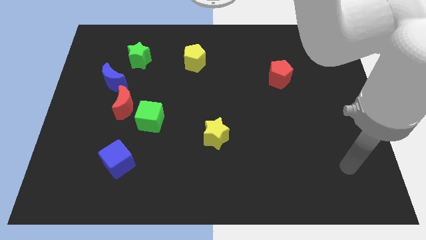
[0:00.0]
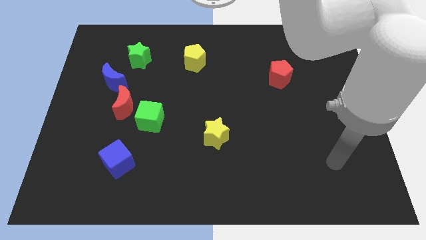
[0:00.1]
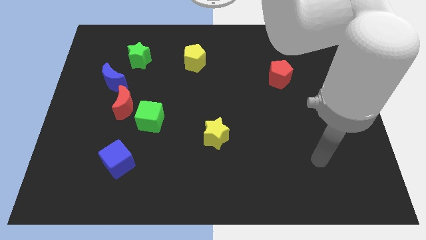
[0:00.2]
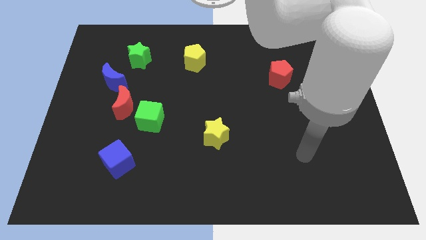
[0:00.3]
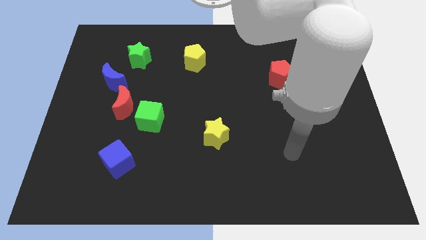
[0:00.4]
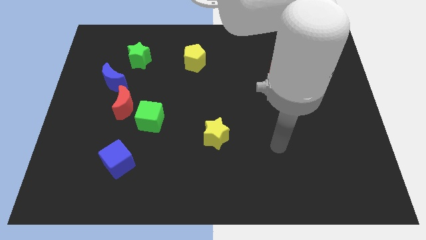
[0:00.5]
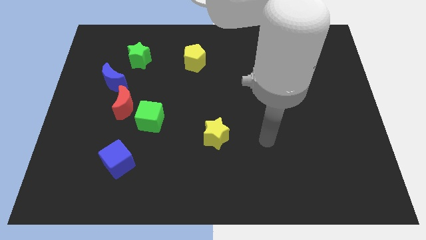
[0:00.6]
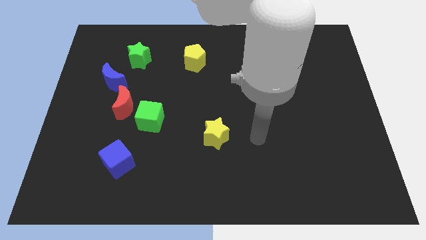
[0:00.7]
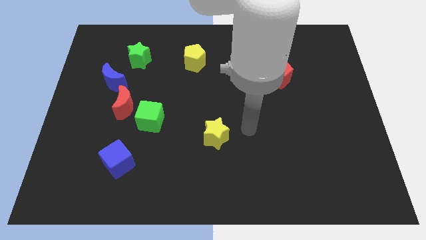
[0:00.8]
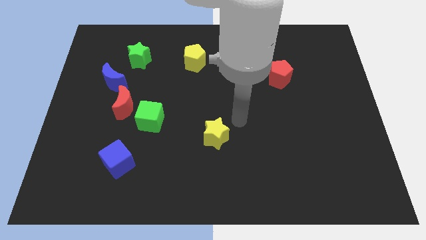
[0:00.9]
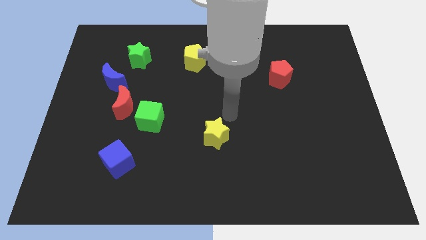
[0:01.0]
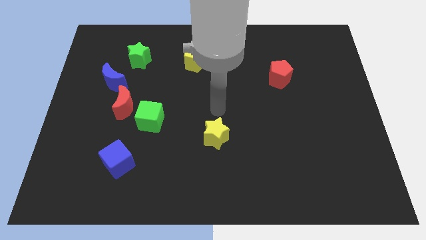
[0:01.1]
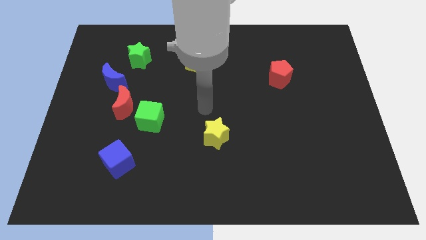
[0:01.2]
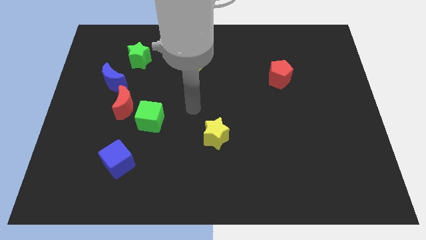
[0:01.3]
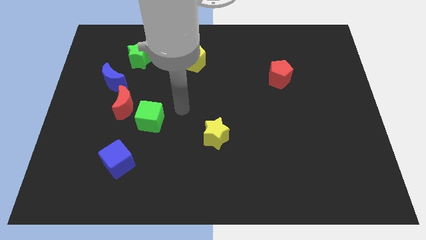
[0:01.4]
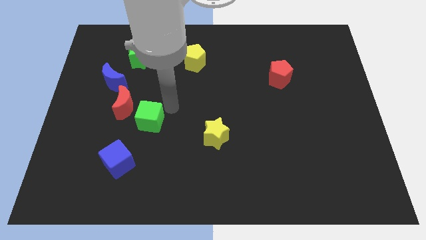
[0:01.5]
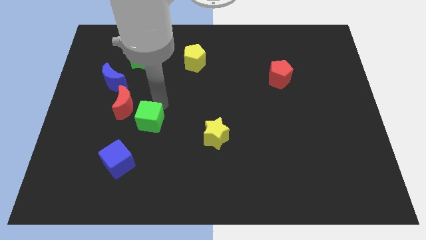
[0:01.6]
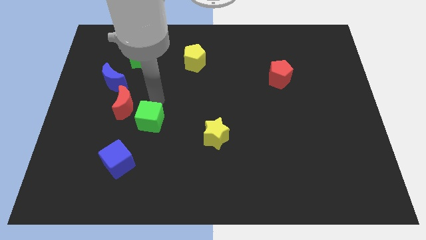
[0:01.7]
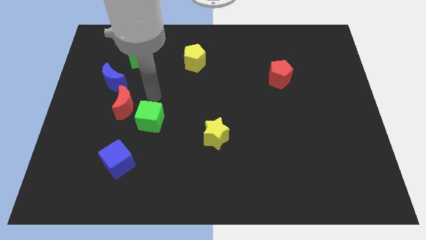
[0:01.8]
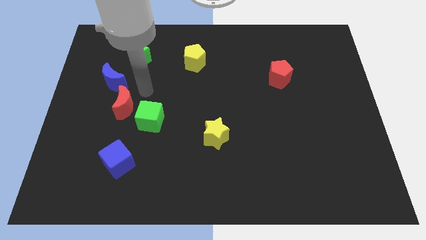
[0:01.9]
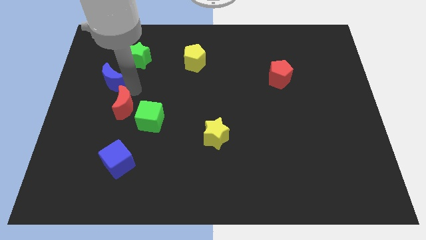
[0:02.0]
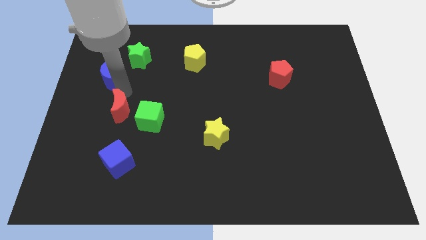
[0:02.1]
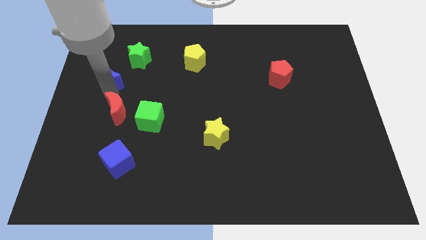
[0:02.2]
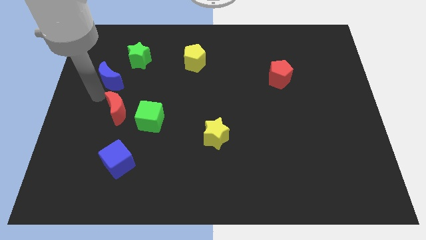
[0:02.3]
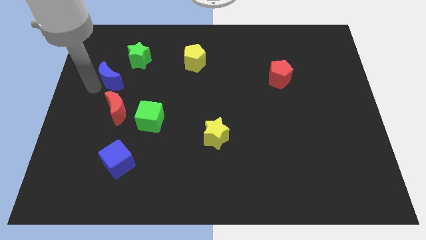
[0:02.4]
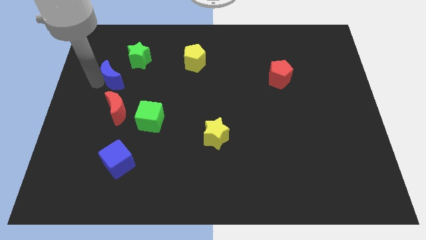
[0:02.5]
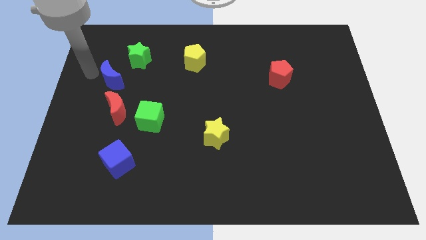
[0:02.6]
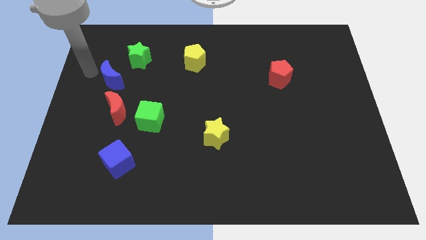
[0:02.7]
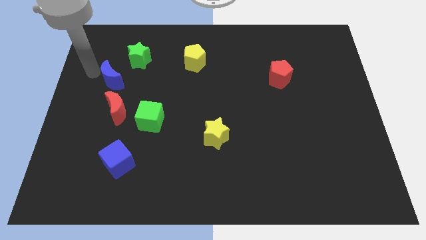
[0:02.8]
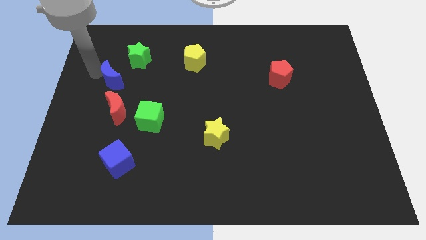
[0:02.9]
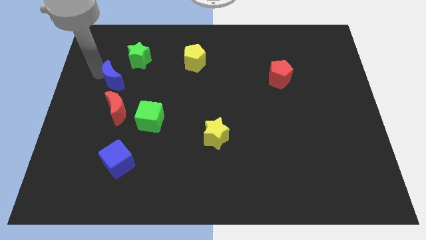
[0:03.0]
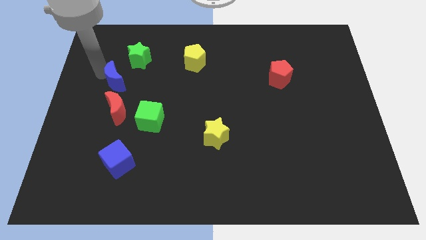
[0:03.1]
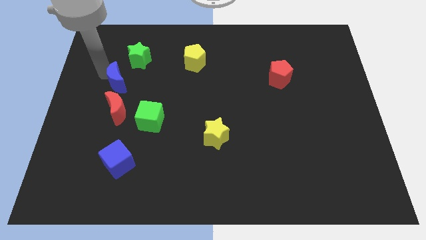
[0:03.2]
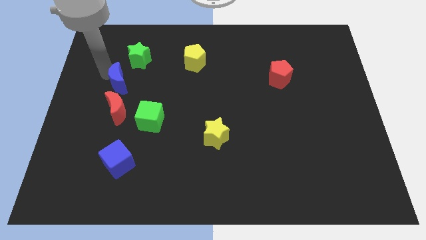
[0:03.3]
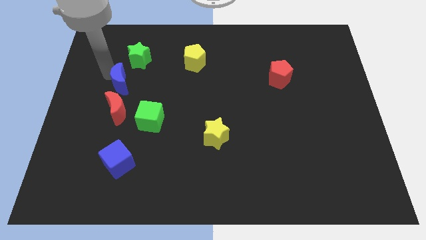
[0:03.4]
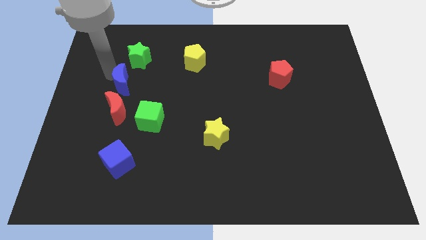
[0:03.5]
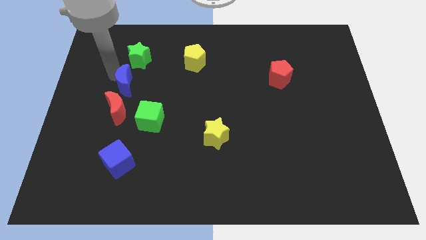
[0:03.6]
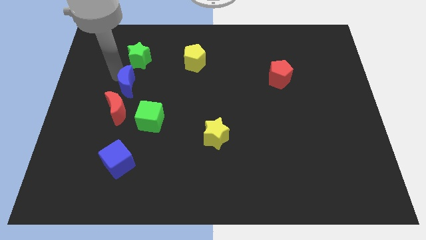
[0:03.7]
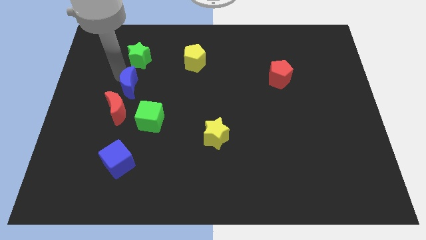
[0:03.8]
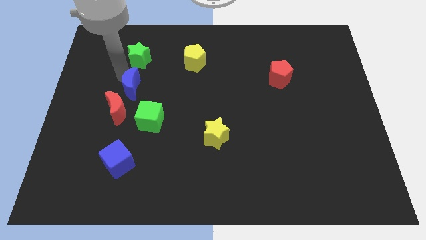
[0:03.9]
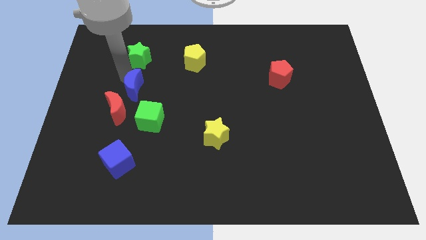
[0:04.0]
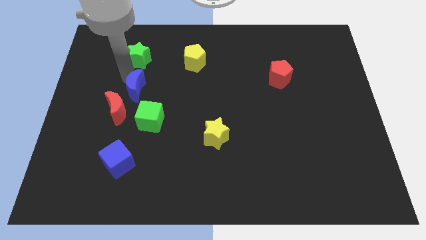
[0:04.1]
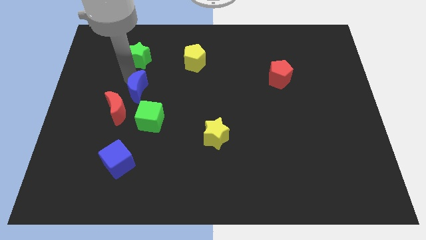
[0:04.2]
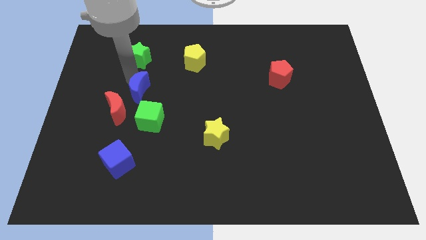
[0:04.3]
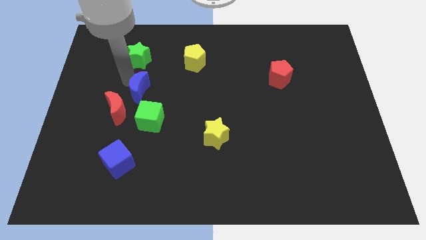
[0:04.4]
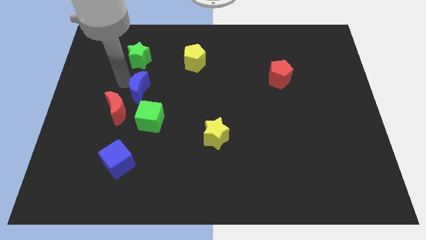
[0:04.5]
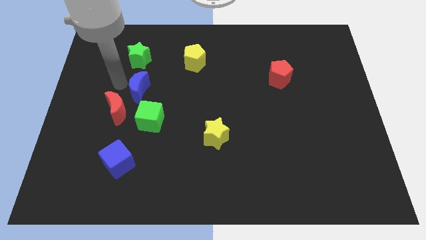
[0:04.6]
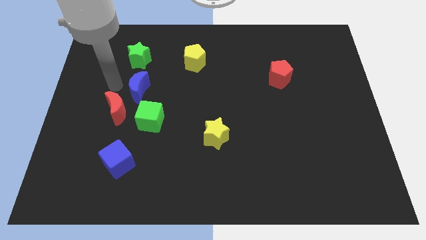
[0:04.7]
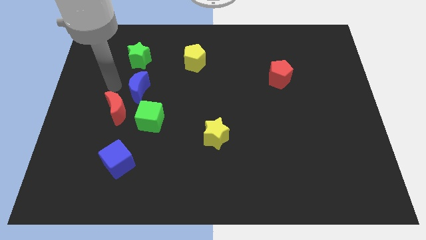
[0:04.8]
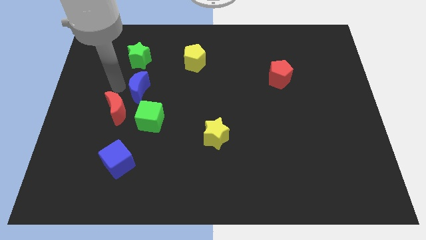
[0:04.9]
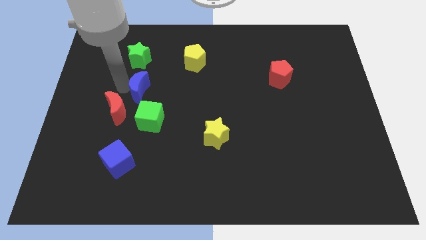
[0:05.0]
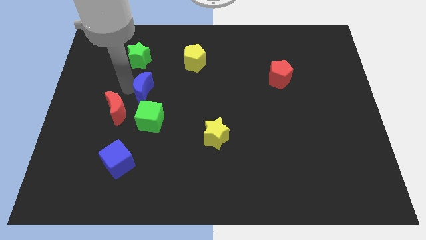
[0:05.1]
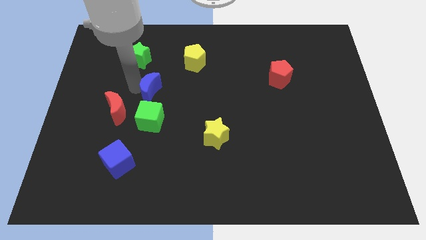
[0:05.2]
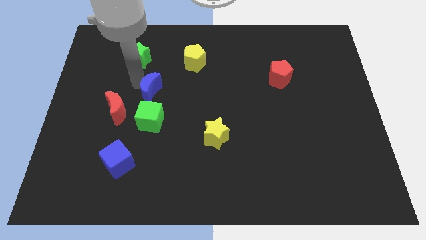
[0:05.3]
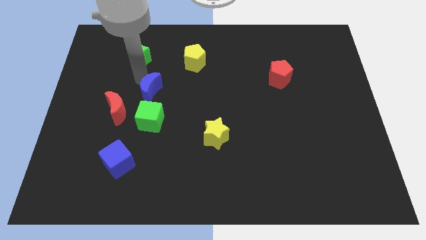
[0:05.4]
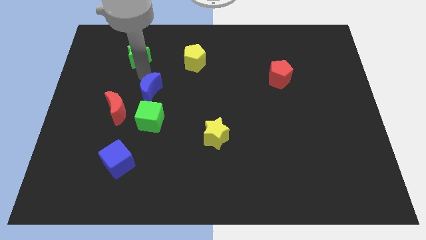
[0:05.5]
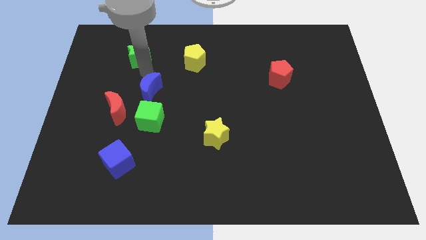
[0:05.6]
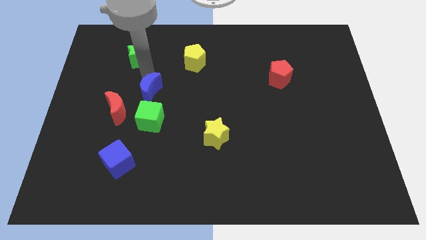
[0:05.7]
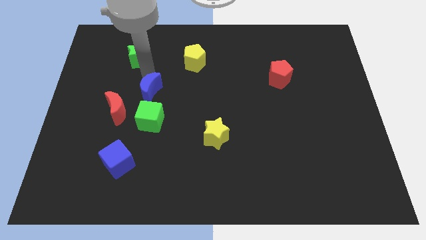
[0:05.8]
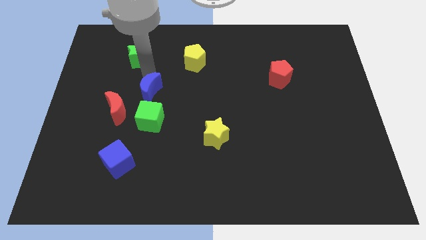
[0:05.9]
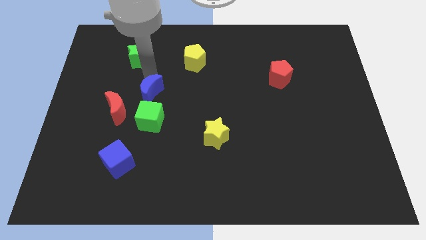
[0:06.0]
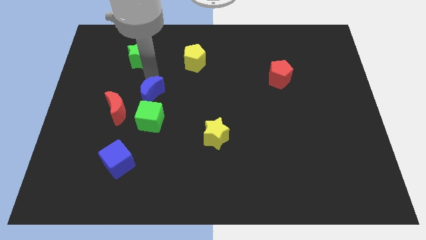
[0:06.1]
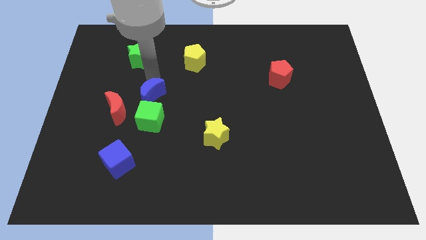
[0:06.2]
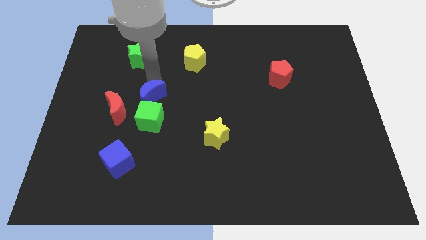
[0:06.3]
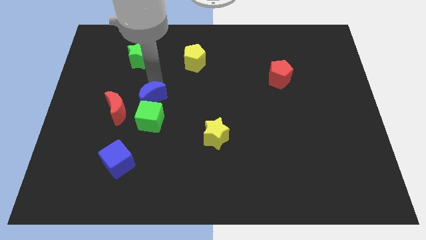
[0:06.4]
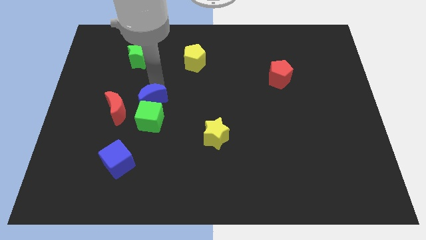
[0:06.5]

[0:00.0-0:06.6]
push the blue moon to the green cube
